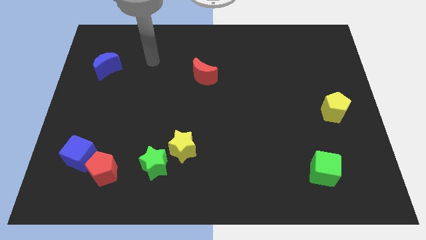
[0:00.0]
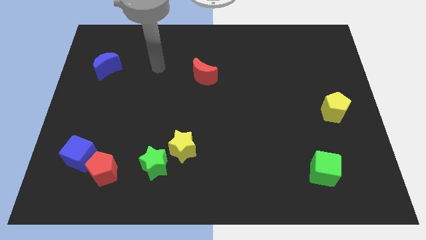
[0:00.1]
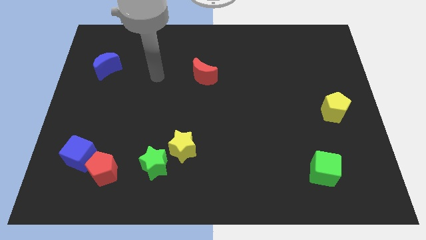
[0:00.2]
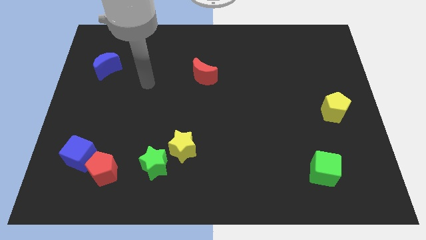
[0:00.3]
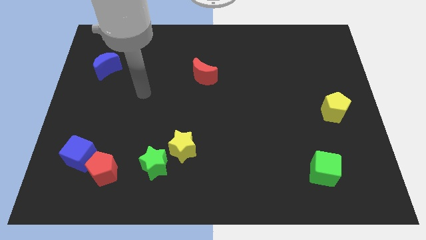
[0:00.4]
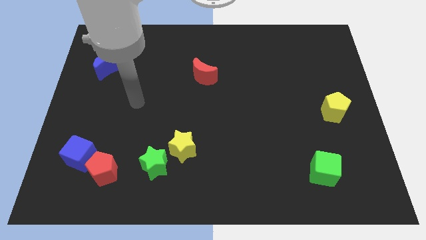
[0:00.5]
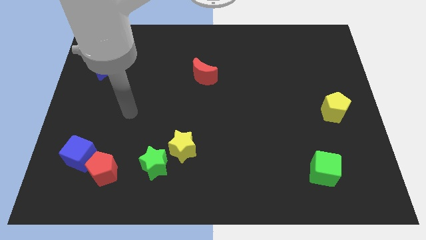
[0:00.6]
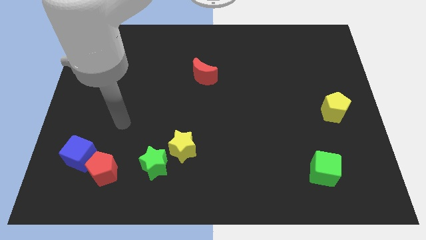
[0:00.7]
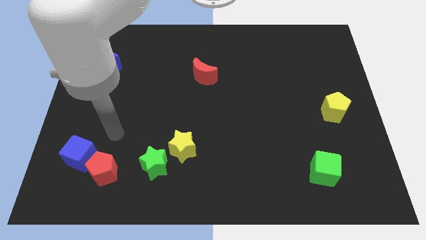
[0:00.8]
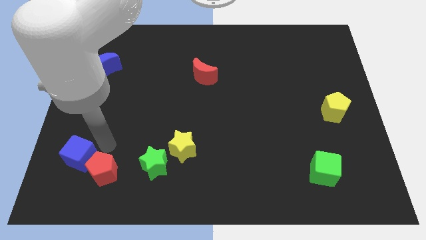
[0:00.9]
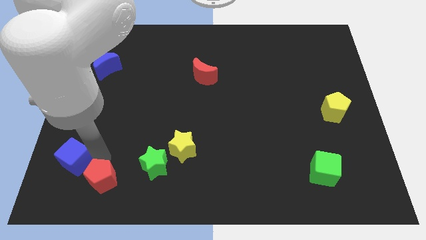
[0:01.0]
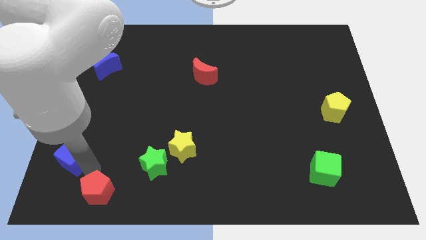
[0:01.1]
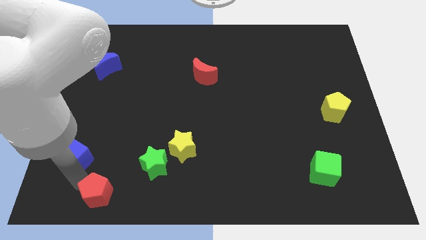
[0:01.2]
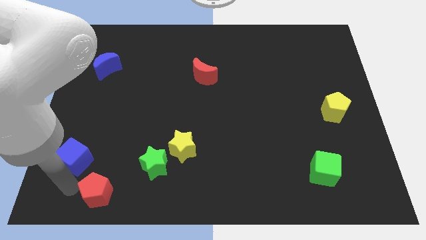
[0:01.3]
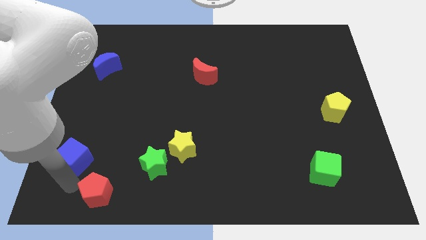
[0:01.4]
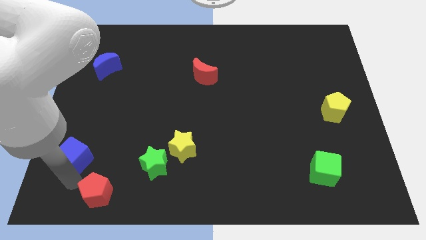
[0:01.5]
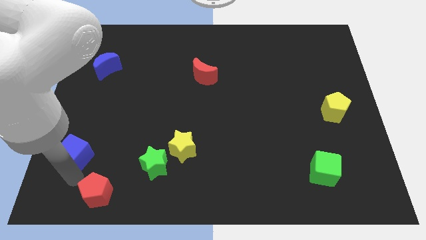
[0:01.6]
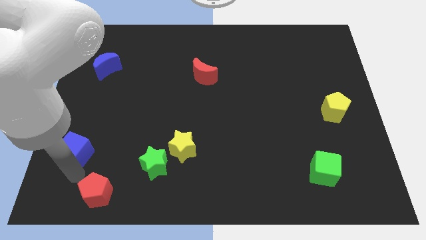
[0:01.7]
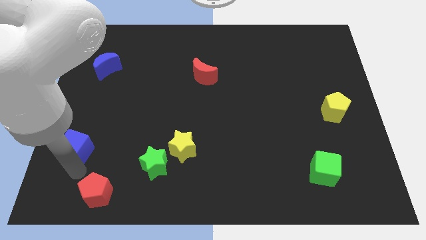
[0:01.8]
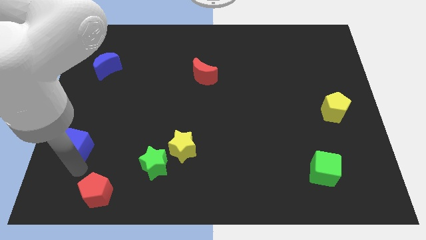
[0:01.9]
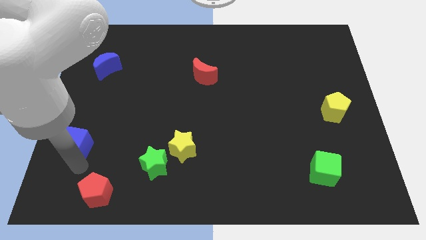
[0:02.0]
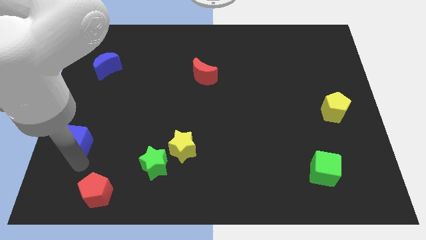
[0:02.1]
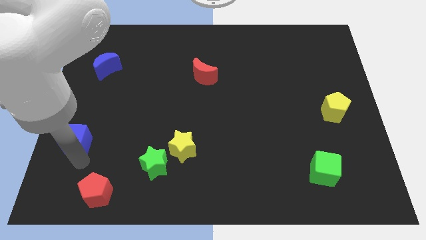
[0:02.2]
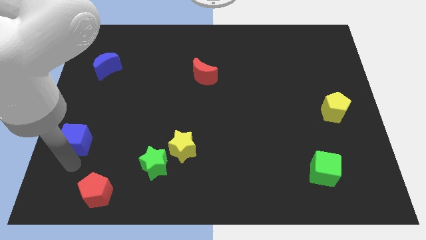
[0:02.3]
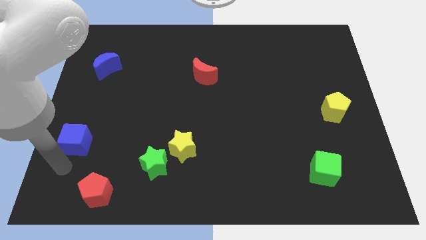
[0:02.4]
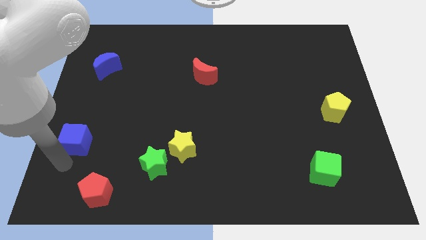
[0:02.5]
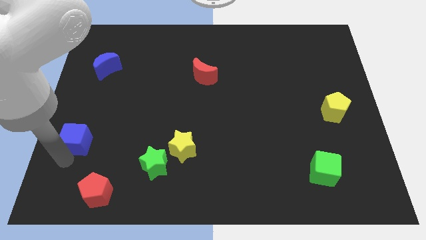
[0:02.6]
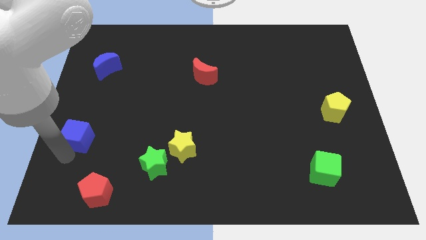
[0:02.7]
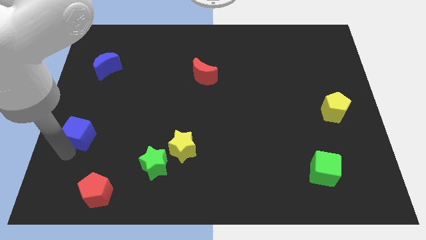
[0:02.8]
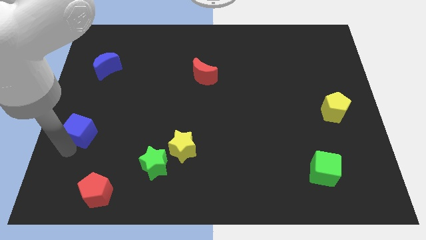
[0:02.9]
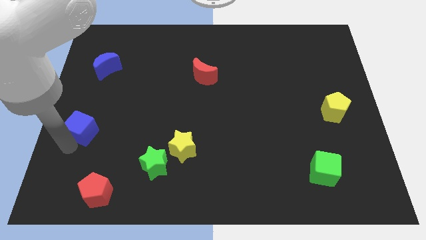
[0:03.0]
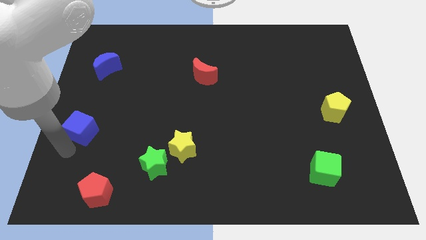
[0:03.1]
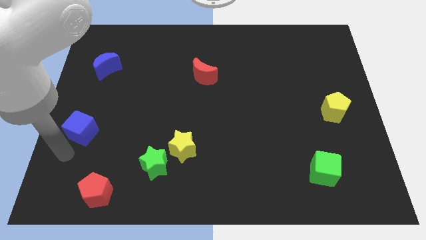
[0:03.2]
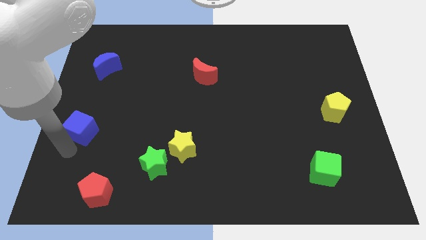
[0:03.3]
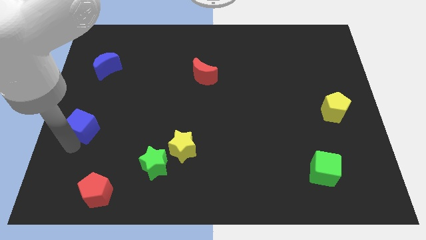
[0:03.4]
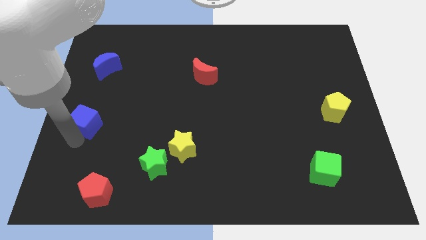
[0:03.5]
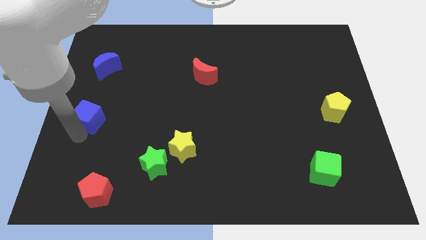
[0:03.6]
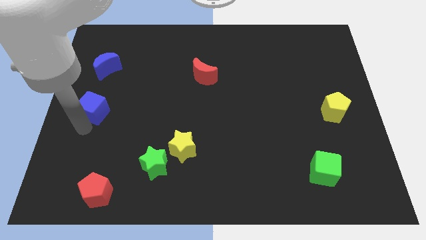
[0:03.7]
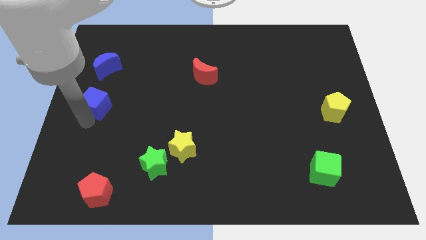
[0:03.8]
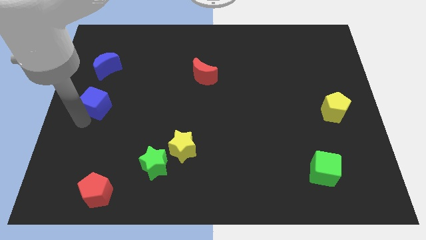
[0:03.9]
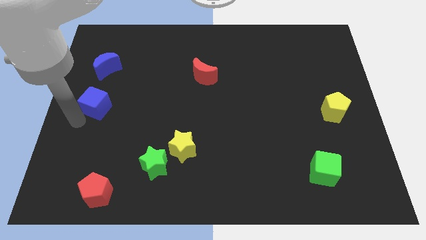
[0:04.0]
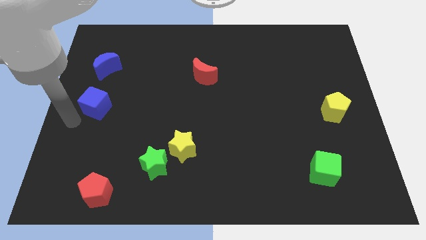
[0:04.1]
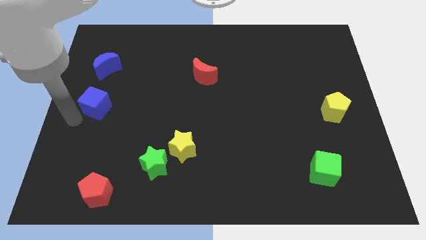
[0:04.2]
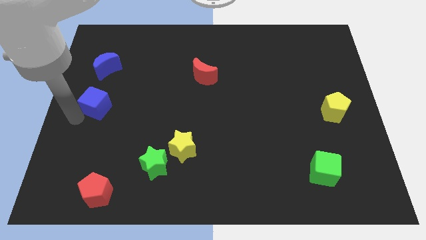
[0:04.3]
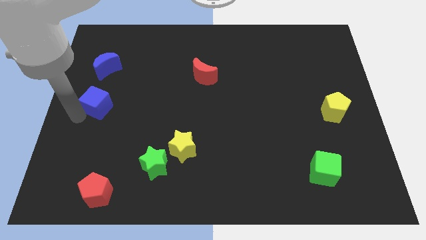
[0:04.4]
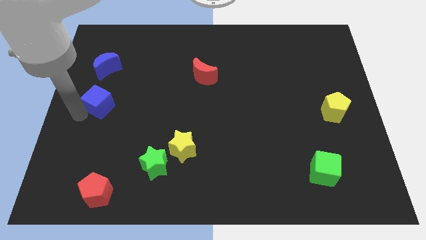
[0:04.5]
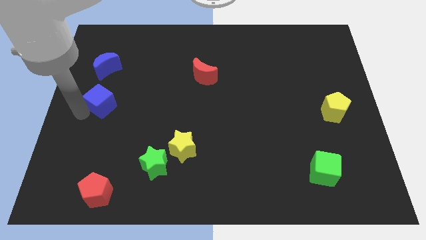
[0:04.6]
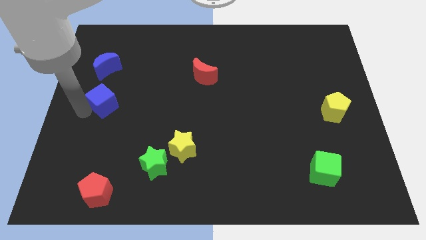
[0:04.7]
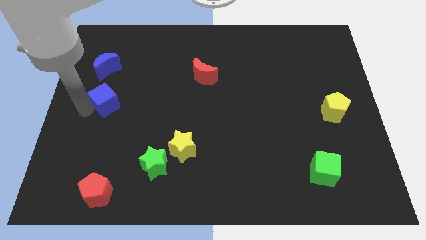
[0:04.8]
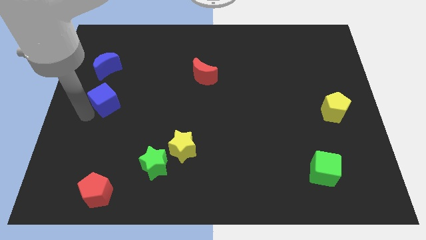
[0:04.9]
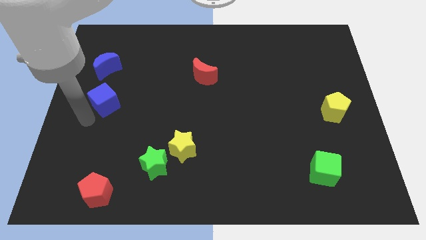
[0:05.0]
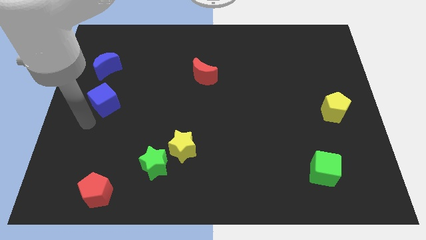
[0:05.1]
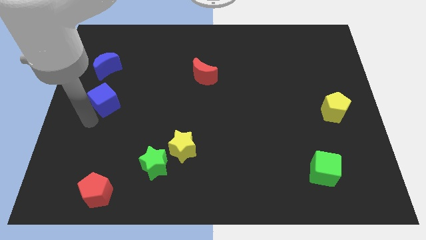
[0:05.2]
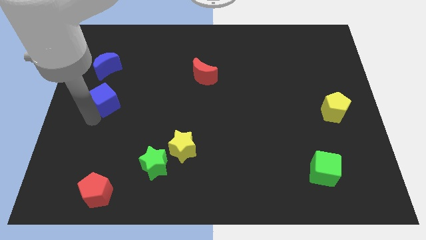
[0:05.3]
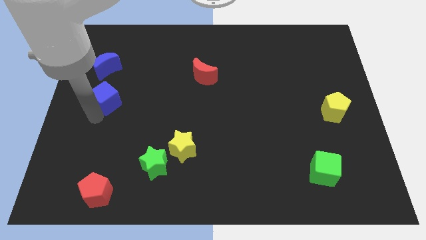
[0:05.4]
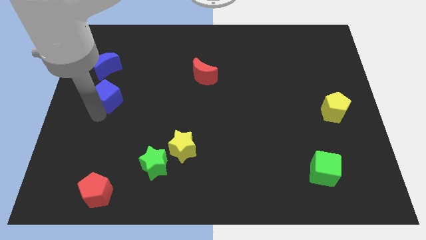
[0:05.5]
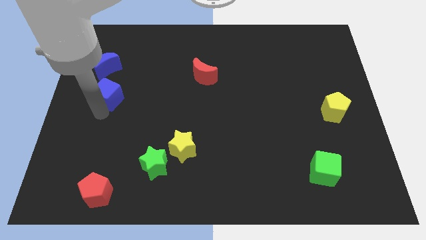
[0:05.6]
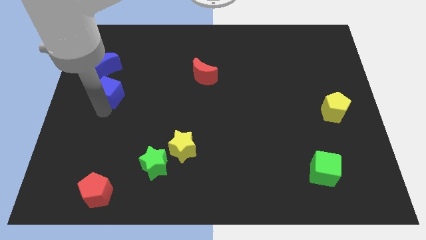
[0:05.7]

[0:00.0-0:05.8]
put the blue cube to the bottom right of the blue moon

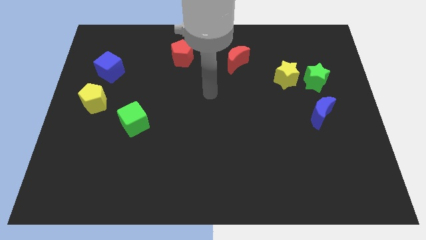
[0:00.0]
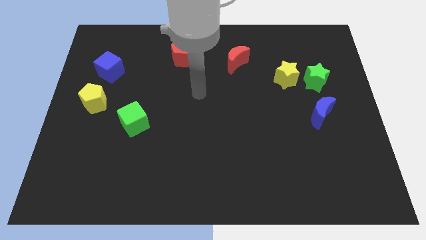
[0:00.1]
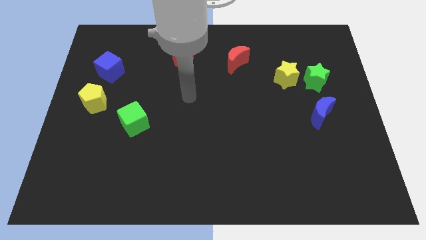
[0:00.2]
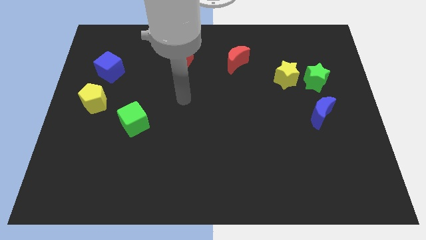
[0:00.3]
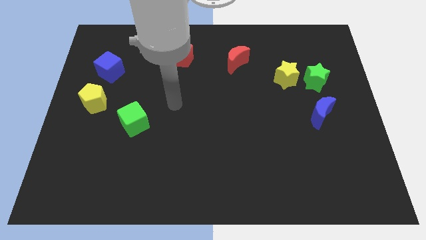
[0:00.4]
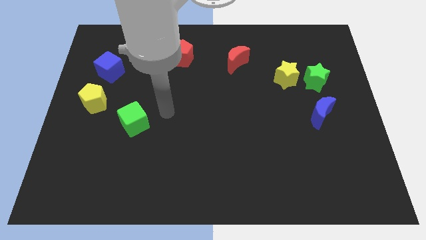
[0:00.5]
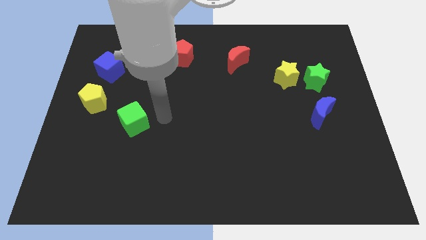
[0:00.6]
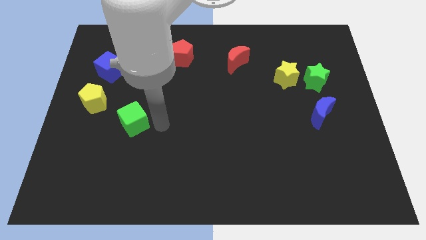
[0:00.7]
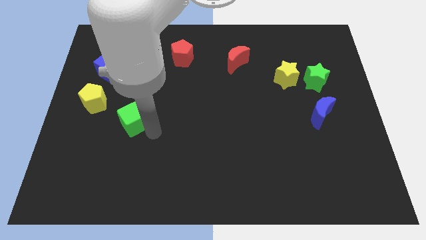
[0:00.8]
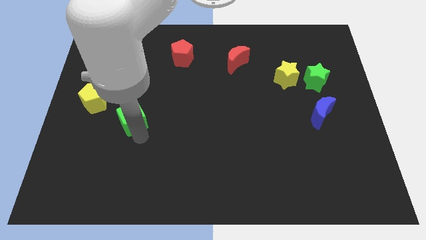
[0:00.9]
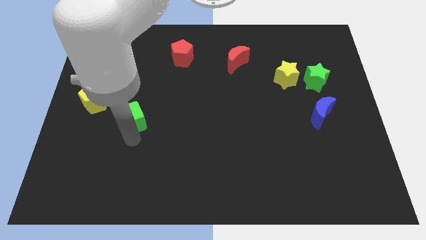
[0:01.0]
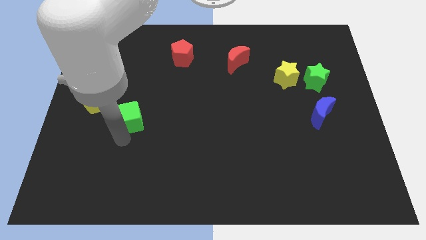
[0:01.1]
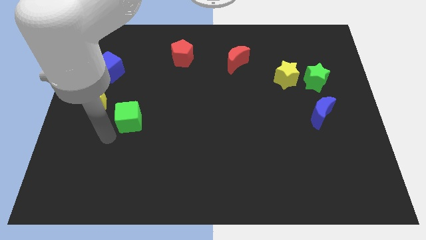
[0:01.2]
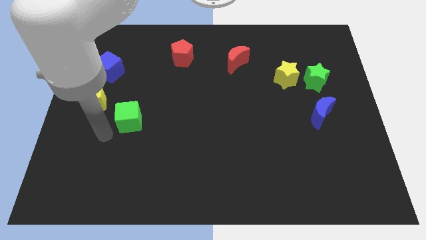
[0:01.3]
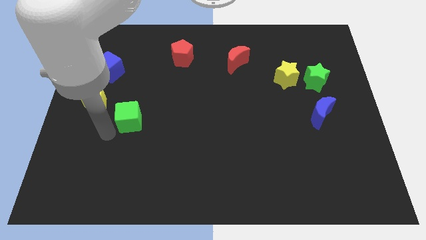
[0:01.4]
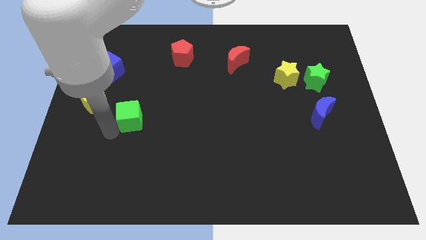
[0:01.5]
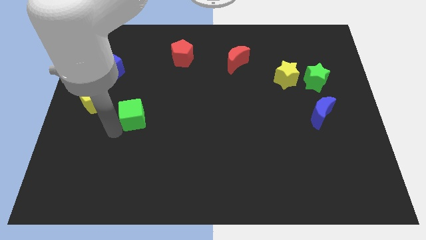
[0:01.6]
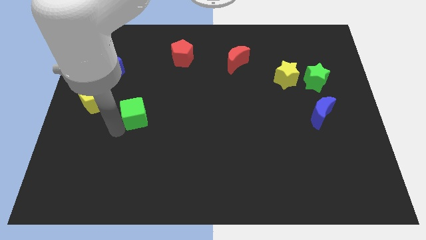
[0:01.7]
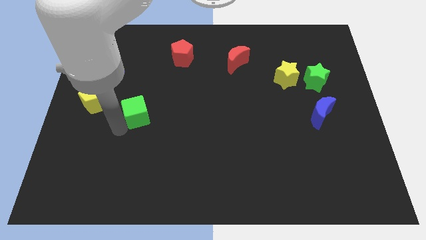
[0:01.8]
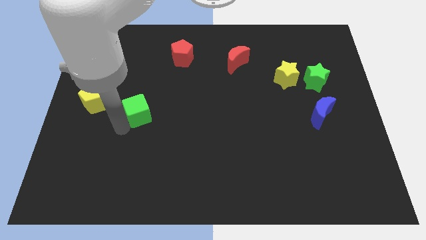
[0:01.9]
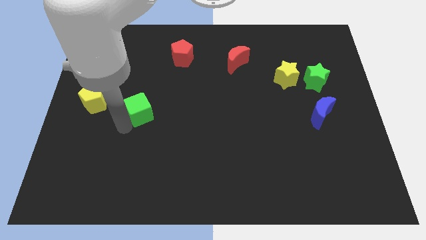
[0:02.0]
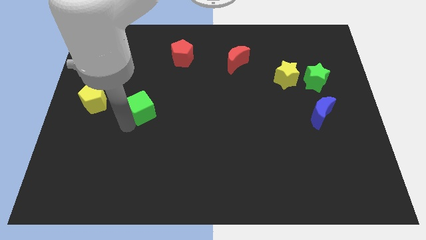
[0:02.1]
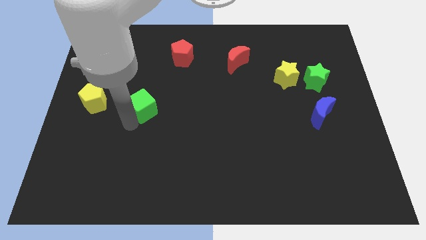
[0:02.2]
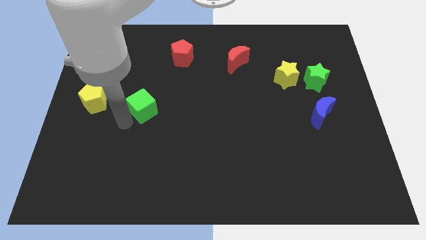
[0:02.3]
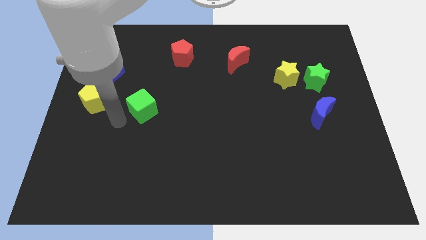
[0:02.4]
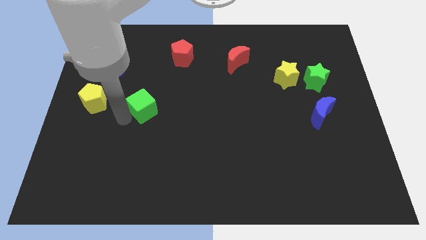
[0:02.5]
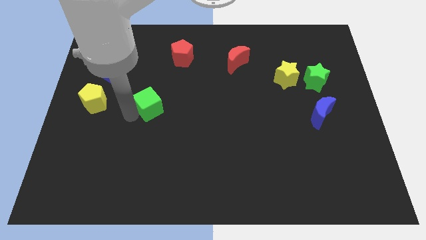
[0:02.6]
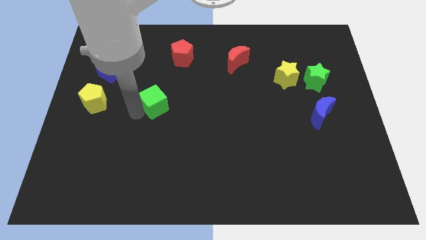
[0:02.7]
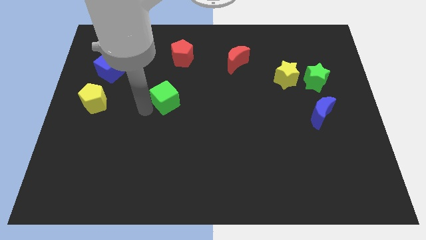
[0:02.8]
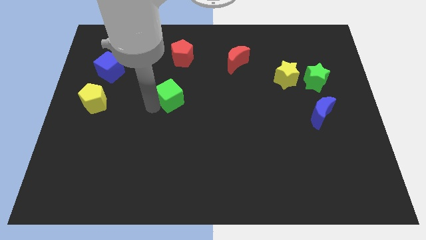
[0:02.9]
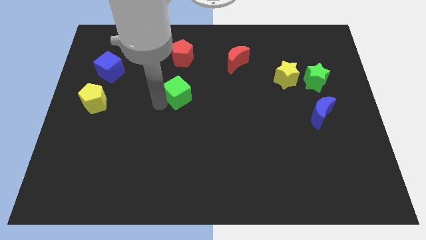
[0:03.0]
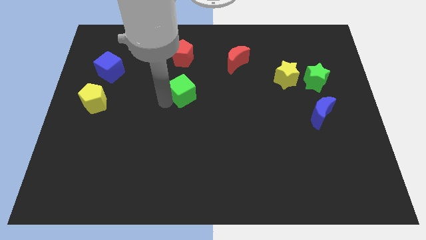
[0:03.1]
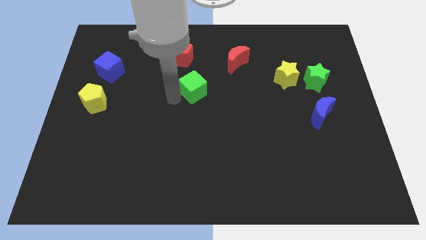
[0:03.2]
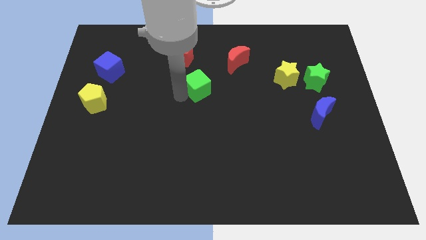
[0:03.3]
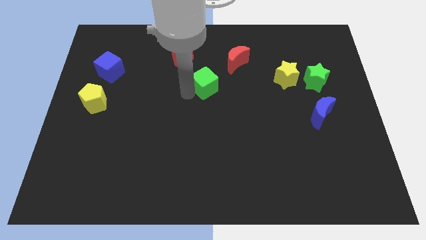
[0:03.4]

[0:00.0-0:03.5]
move the green cube diagonally down and to the left of the red moon
